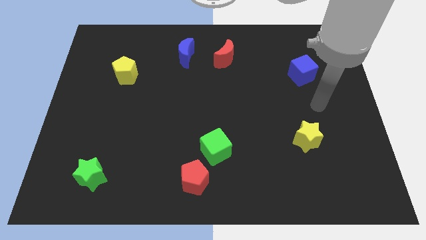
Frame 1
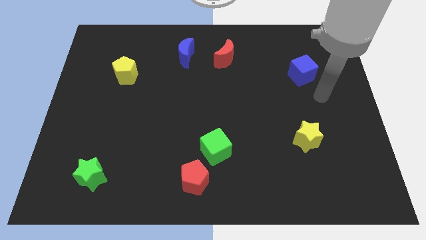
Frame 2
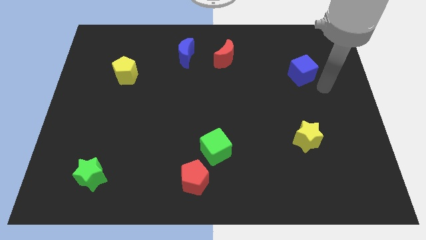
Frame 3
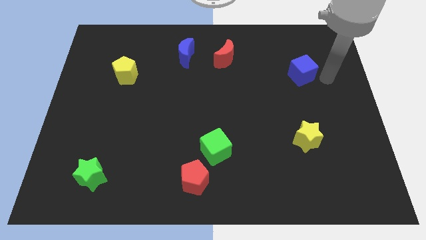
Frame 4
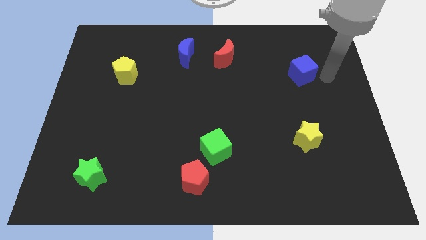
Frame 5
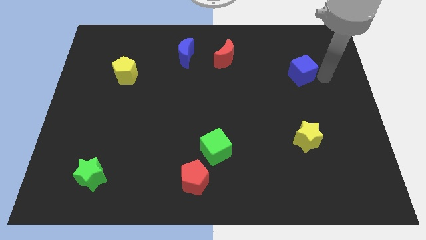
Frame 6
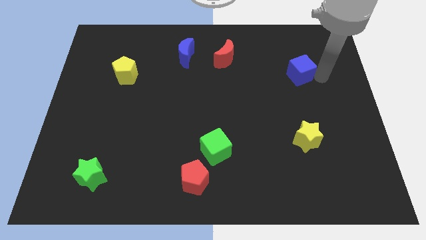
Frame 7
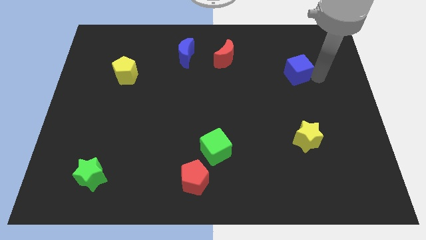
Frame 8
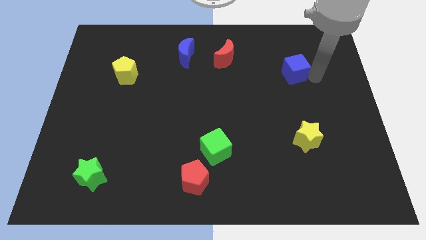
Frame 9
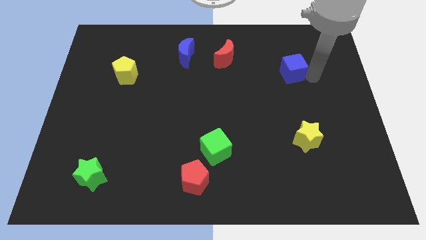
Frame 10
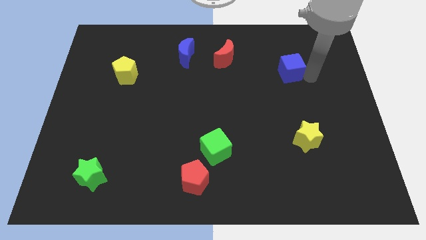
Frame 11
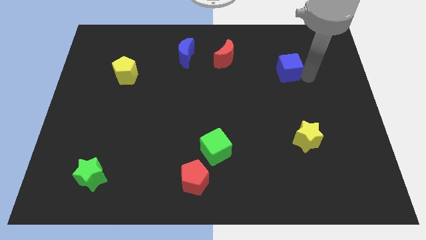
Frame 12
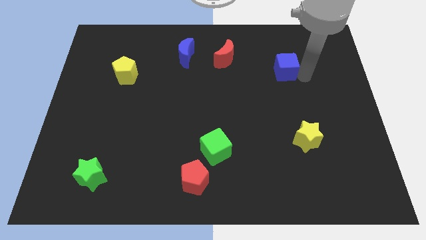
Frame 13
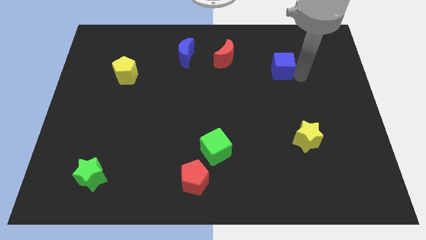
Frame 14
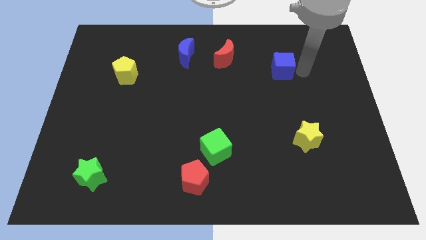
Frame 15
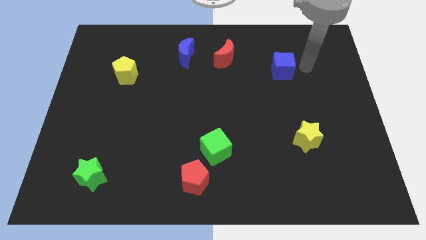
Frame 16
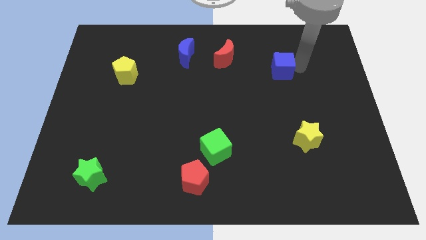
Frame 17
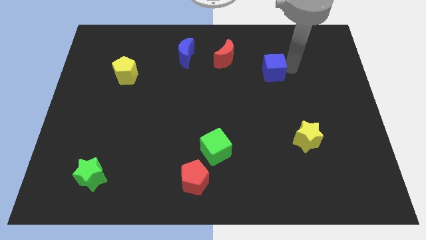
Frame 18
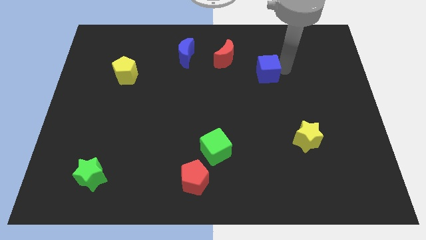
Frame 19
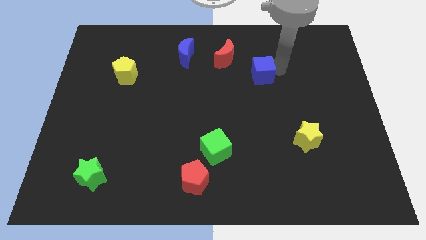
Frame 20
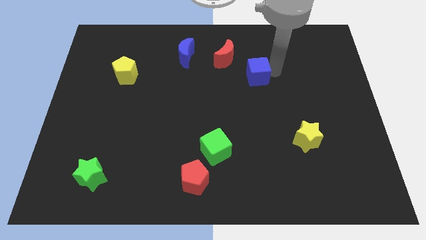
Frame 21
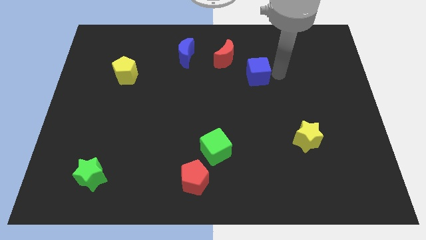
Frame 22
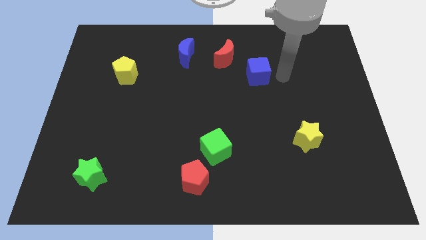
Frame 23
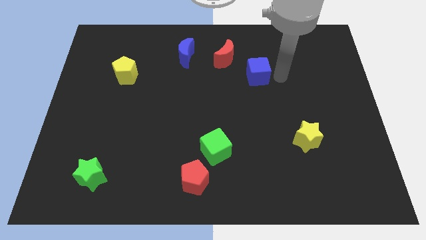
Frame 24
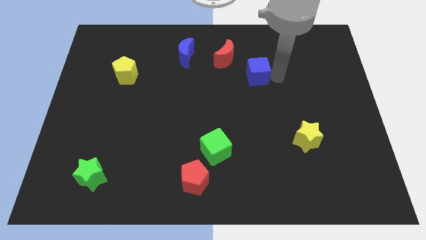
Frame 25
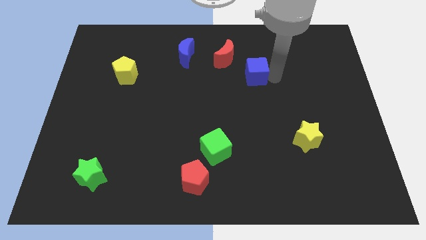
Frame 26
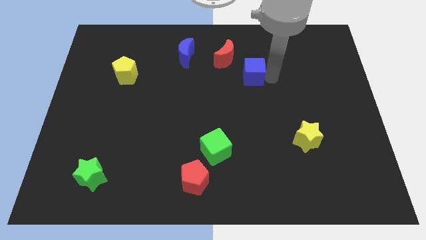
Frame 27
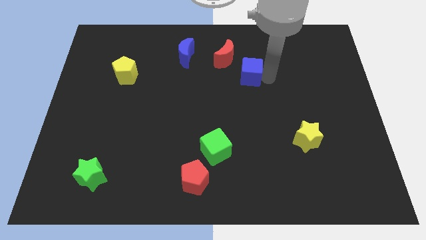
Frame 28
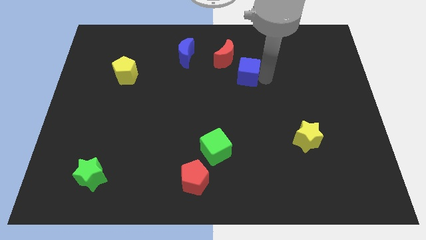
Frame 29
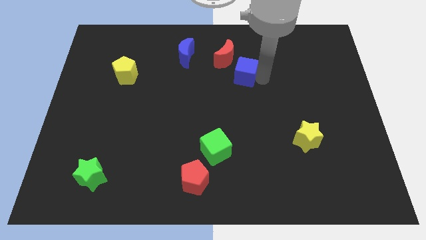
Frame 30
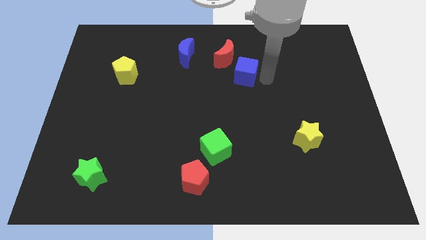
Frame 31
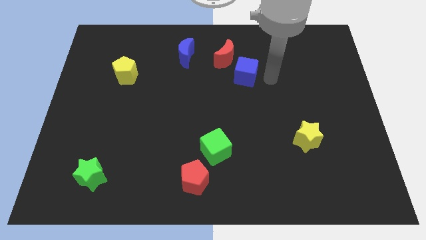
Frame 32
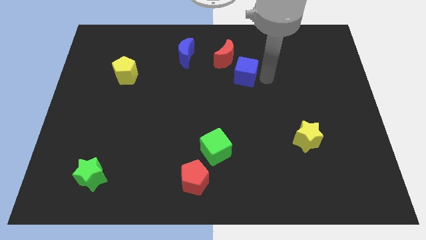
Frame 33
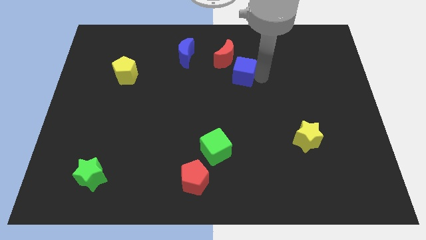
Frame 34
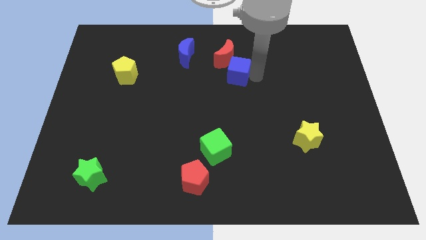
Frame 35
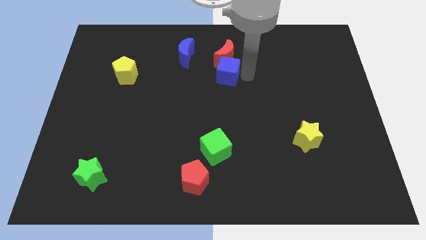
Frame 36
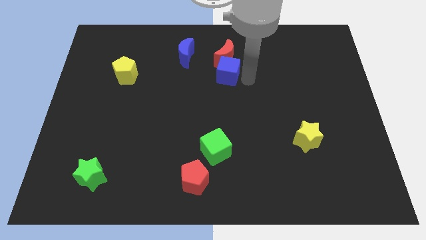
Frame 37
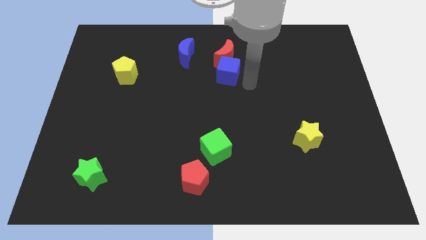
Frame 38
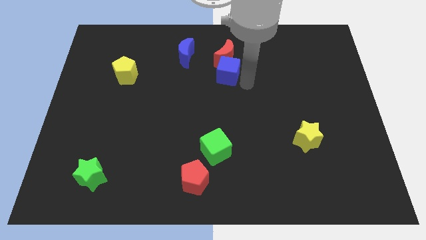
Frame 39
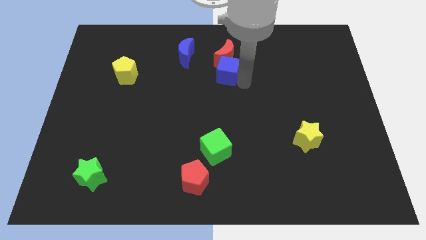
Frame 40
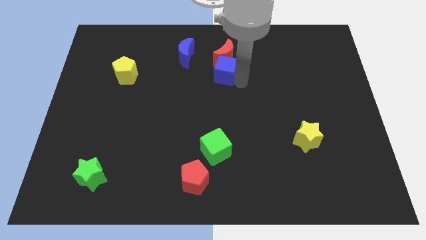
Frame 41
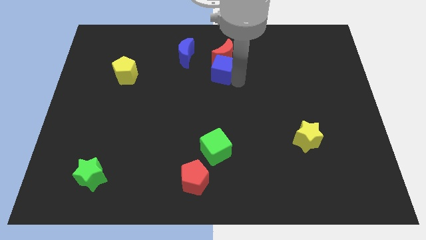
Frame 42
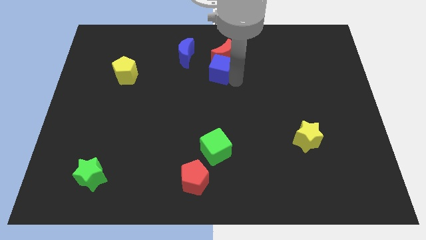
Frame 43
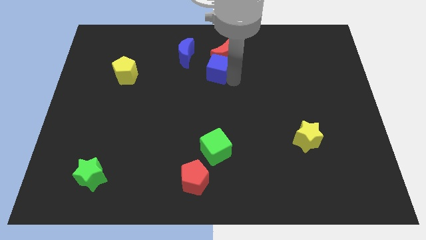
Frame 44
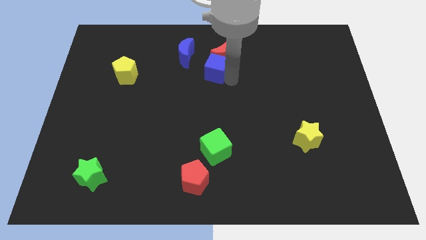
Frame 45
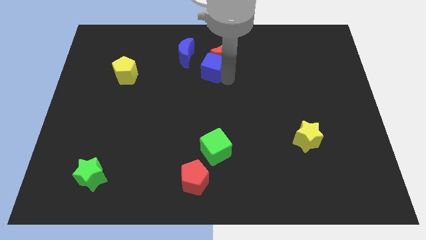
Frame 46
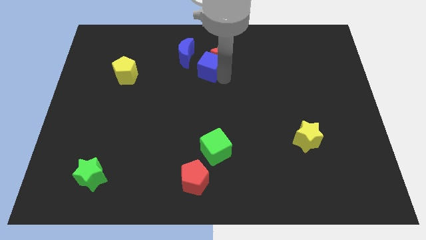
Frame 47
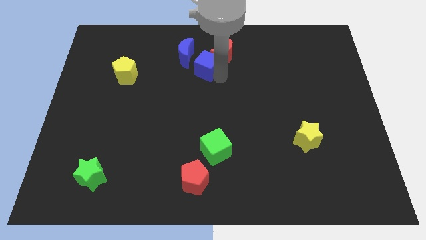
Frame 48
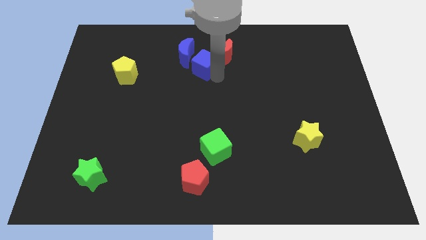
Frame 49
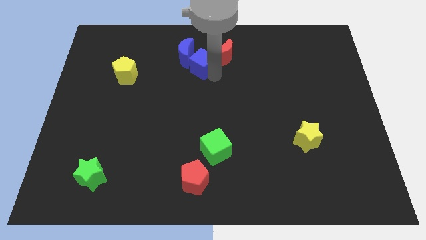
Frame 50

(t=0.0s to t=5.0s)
move the blue cube close to the blue moon

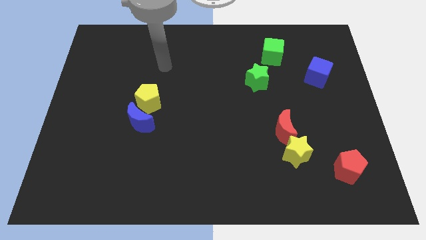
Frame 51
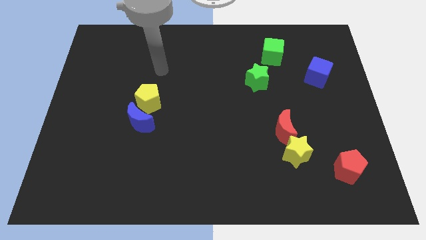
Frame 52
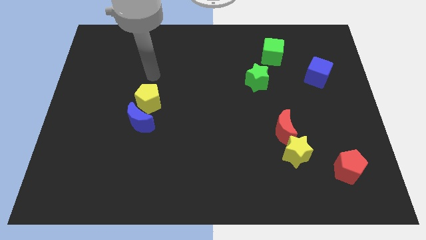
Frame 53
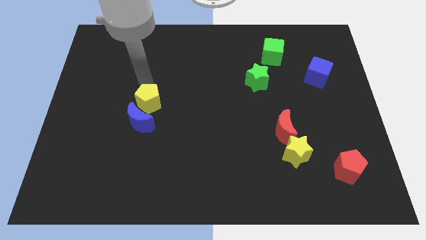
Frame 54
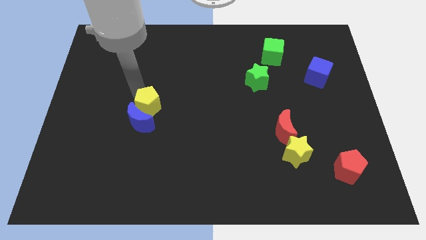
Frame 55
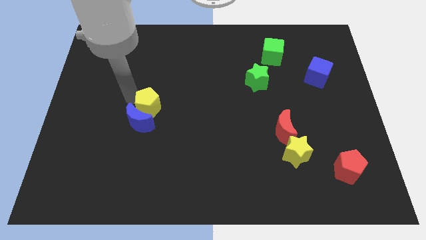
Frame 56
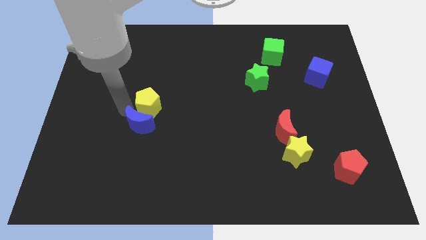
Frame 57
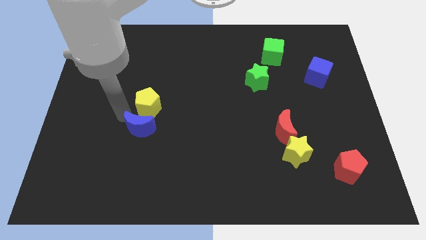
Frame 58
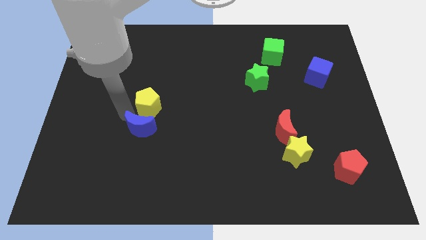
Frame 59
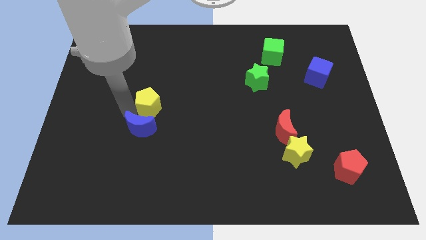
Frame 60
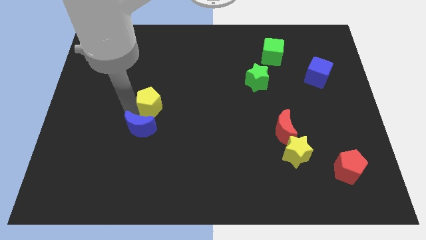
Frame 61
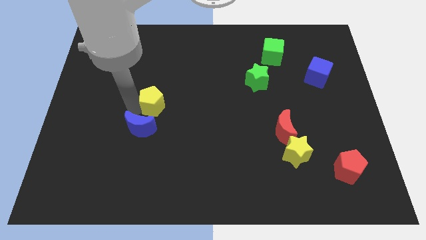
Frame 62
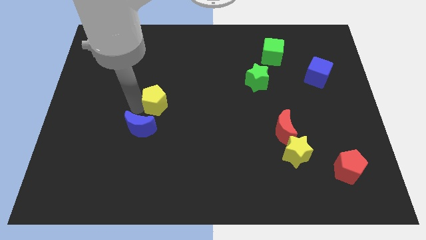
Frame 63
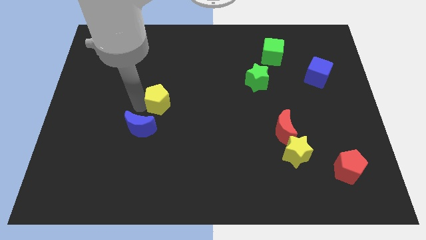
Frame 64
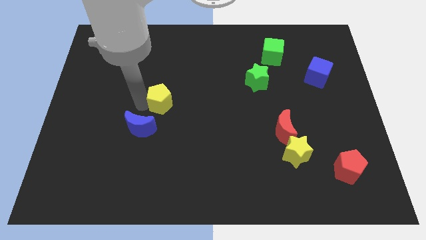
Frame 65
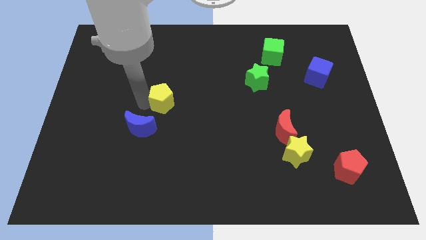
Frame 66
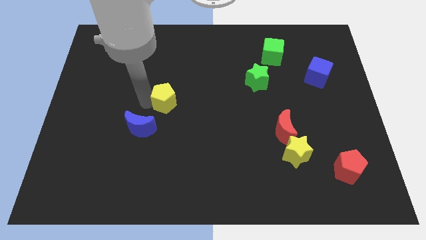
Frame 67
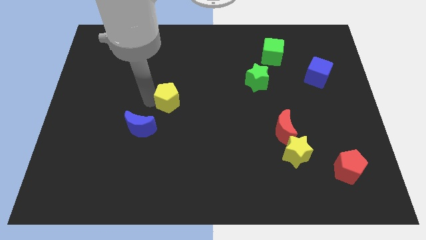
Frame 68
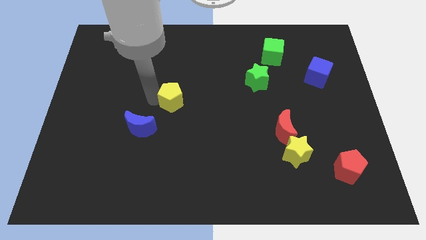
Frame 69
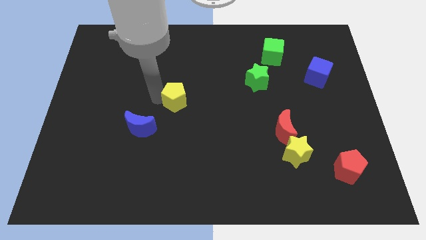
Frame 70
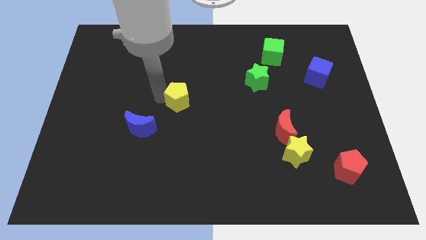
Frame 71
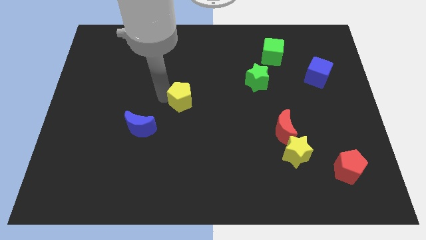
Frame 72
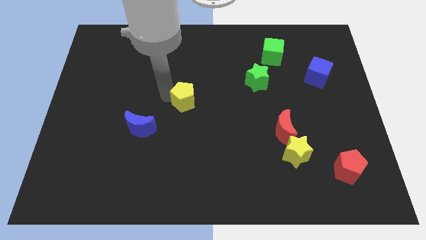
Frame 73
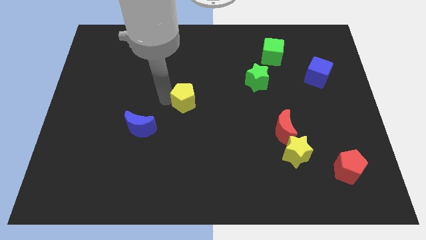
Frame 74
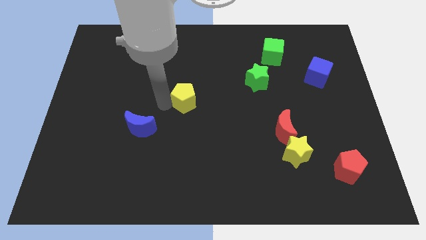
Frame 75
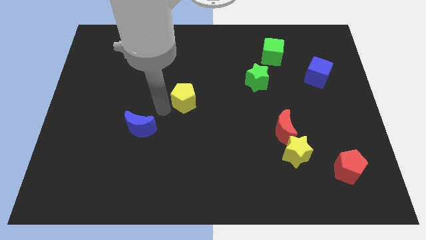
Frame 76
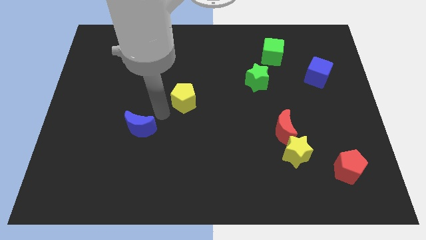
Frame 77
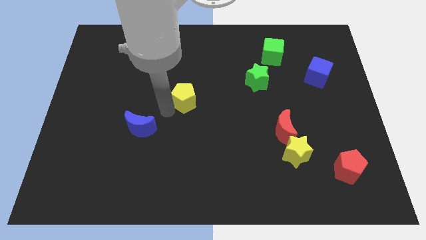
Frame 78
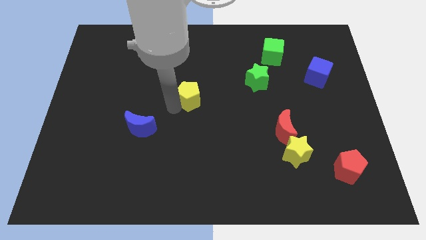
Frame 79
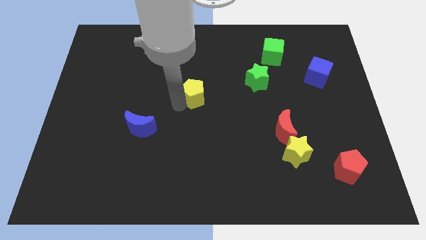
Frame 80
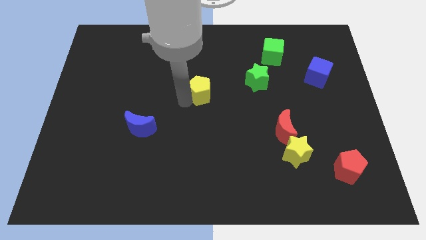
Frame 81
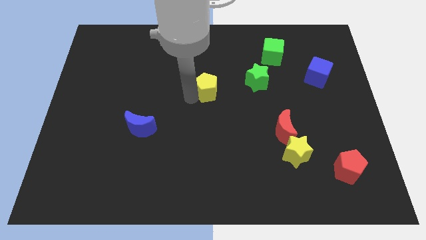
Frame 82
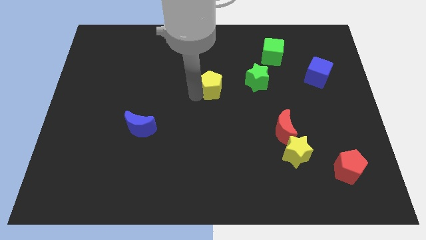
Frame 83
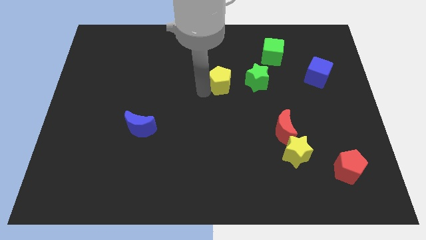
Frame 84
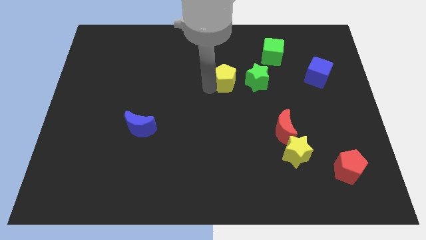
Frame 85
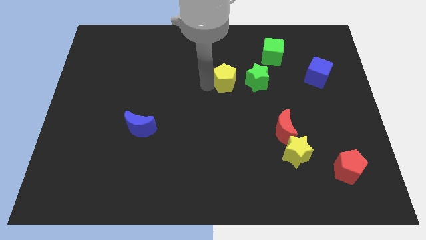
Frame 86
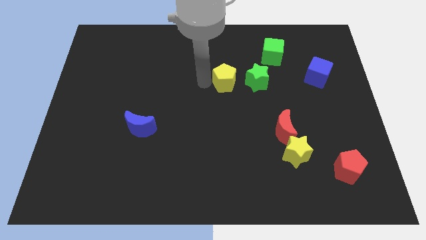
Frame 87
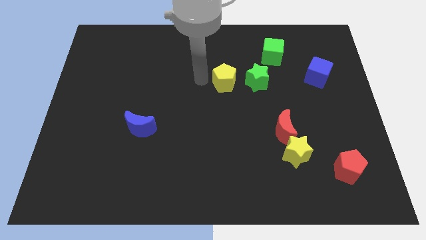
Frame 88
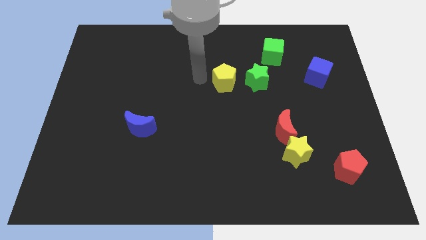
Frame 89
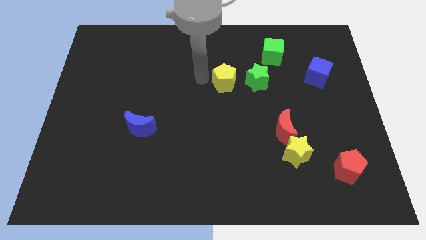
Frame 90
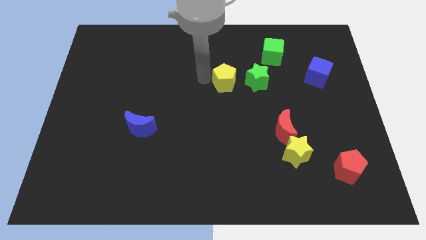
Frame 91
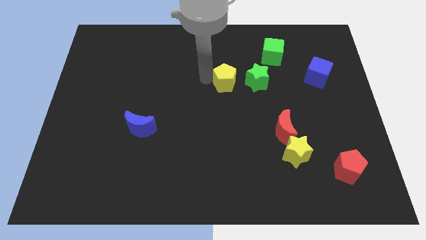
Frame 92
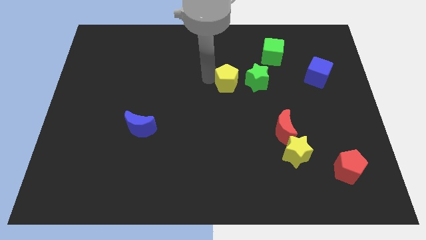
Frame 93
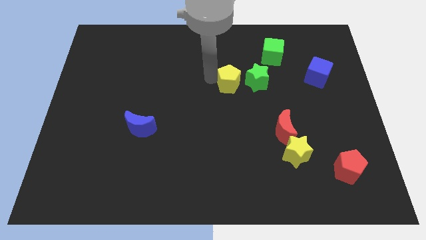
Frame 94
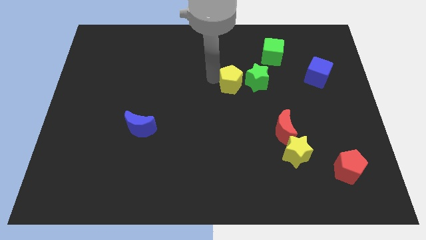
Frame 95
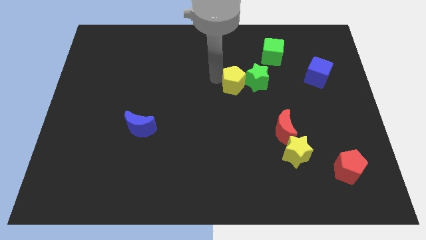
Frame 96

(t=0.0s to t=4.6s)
slide the yellow pentagon towards the green star
